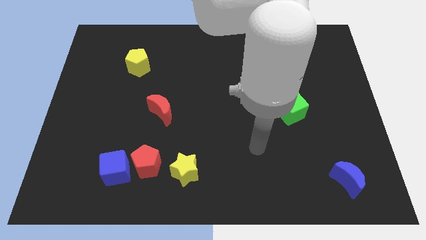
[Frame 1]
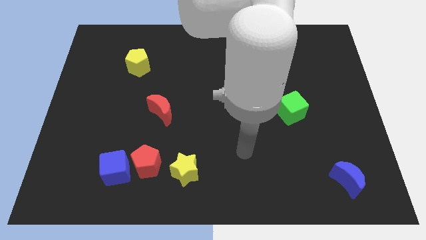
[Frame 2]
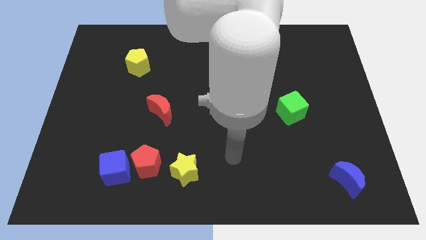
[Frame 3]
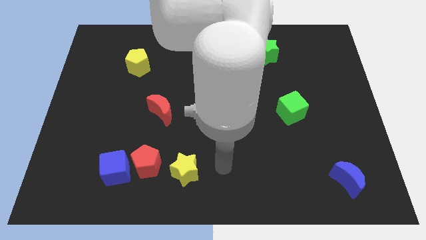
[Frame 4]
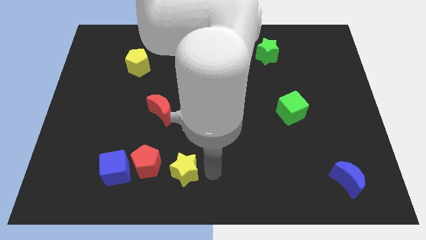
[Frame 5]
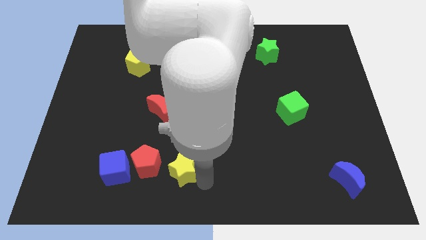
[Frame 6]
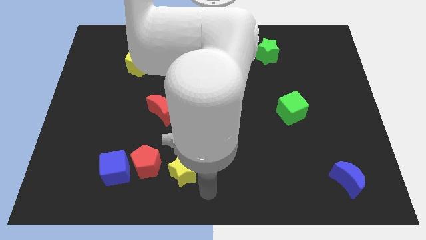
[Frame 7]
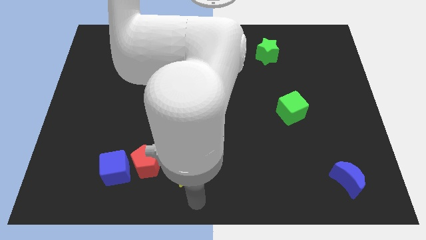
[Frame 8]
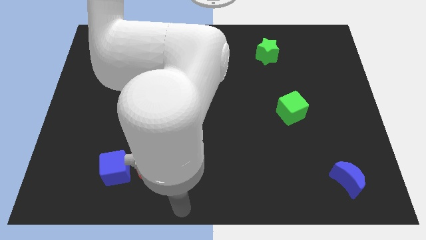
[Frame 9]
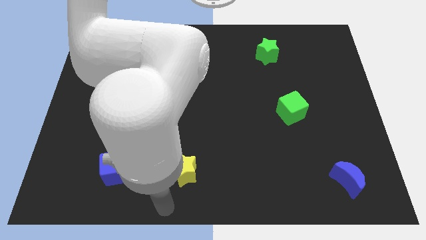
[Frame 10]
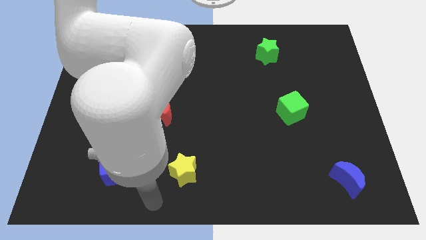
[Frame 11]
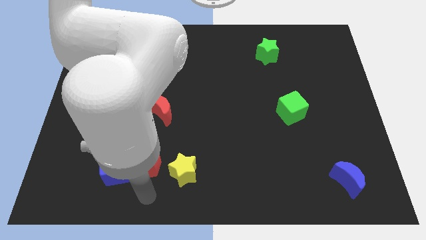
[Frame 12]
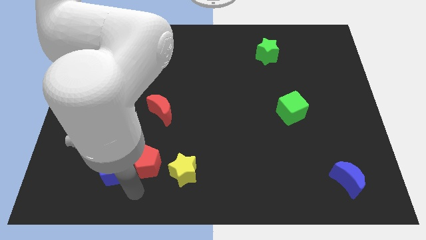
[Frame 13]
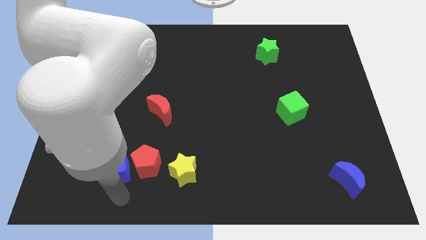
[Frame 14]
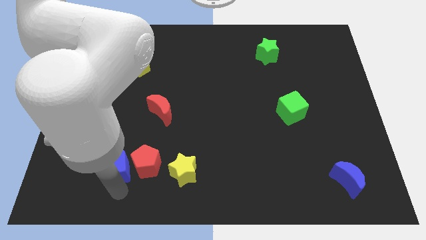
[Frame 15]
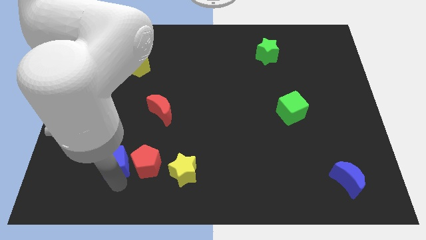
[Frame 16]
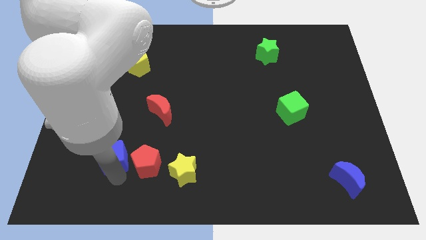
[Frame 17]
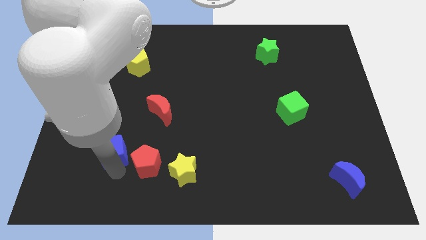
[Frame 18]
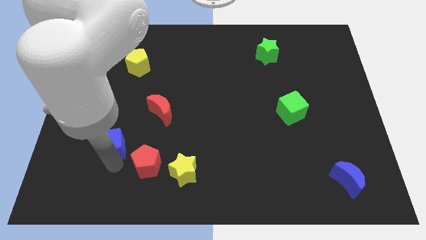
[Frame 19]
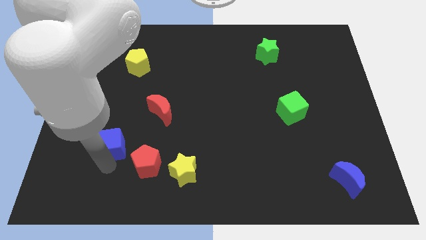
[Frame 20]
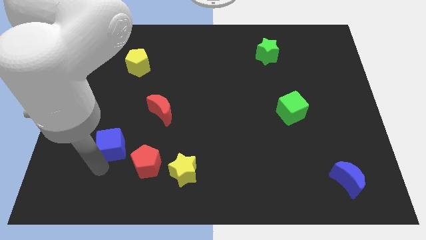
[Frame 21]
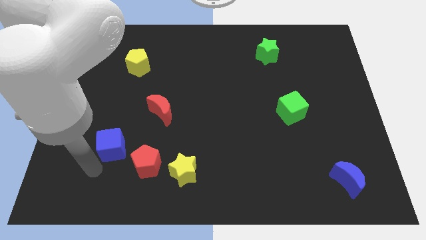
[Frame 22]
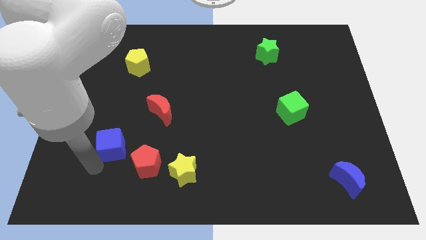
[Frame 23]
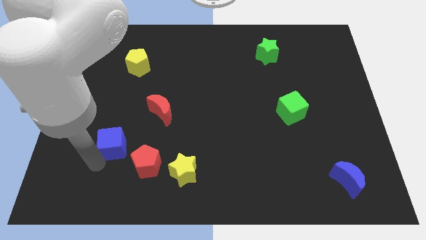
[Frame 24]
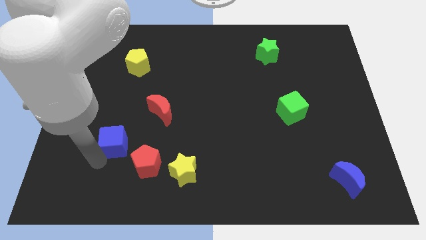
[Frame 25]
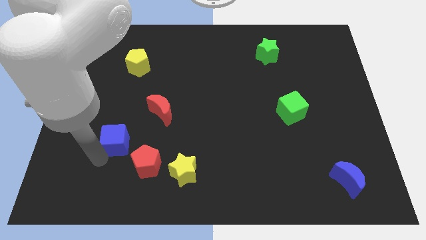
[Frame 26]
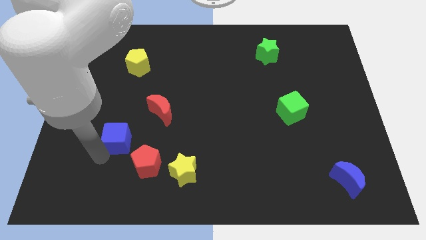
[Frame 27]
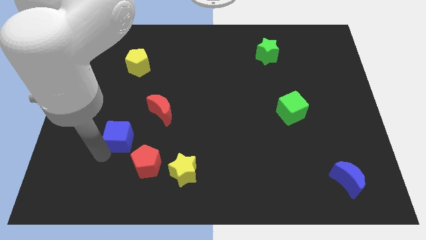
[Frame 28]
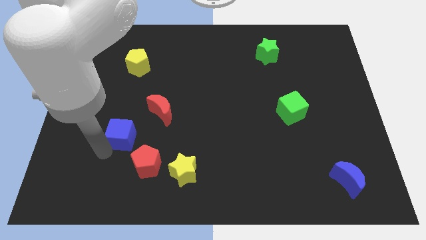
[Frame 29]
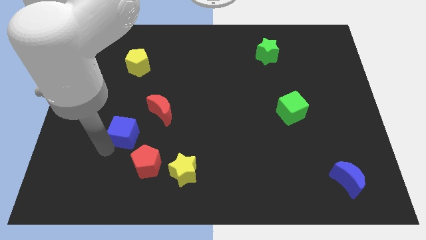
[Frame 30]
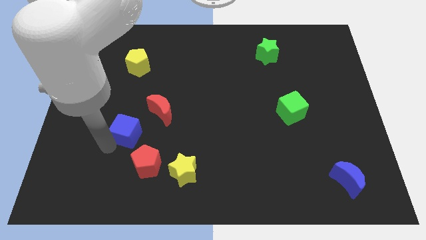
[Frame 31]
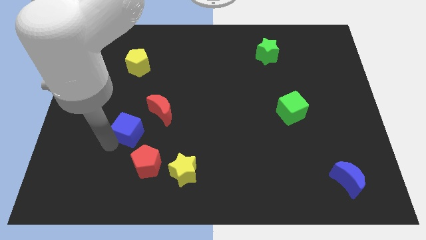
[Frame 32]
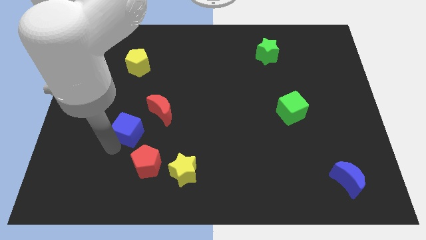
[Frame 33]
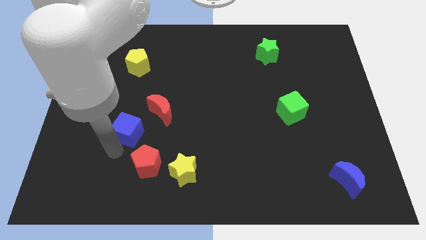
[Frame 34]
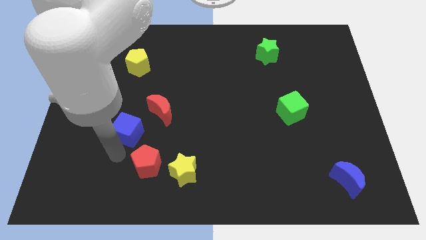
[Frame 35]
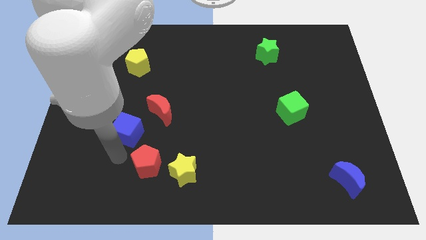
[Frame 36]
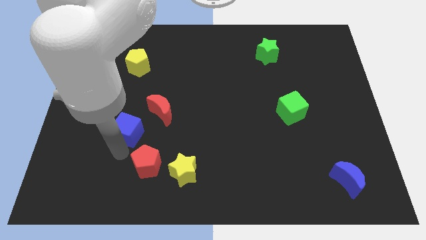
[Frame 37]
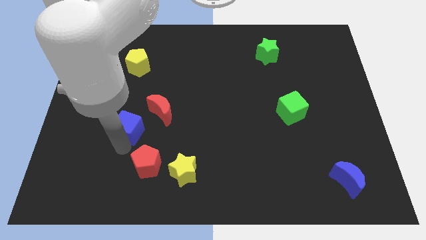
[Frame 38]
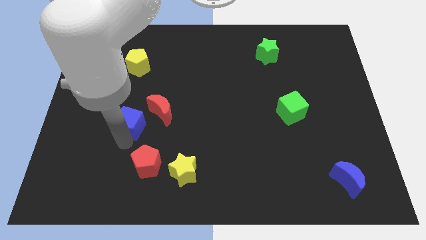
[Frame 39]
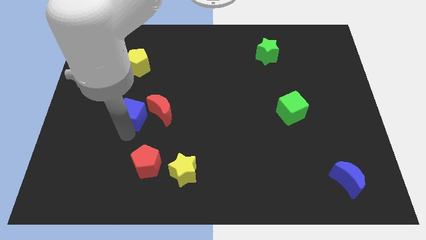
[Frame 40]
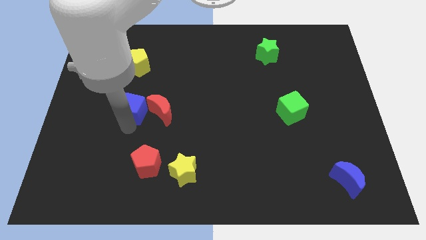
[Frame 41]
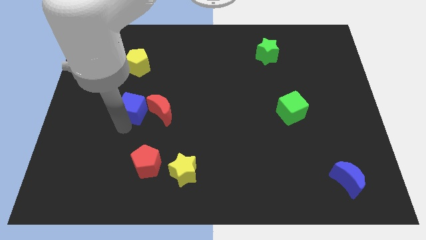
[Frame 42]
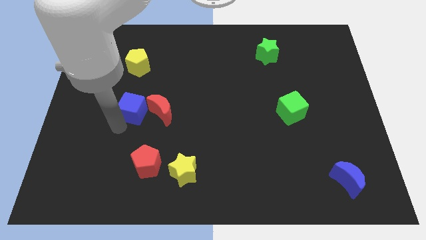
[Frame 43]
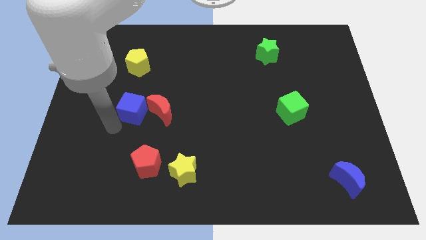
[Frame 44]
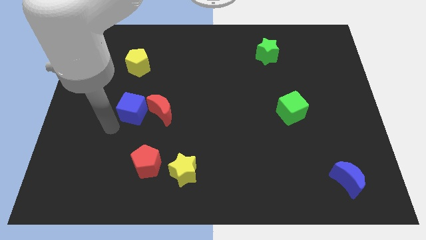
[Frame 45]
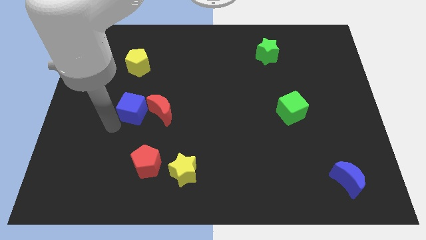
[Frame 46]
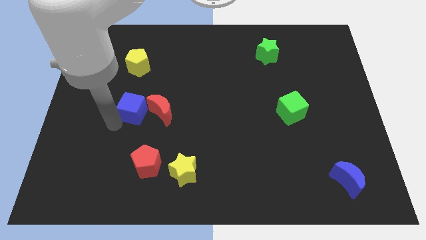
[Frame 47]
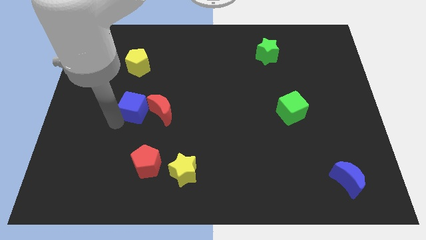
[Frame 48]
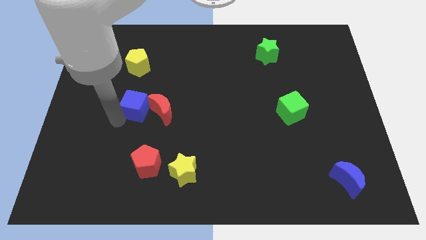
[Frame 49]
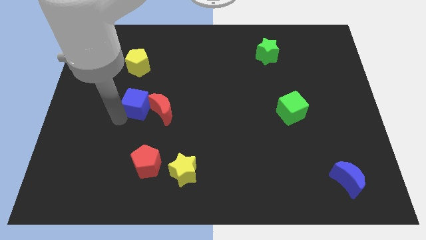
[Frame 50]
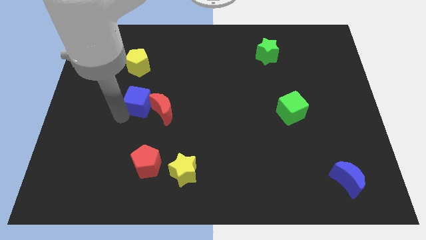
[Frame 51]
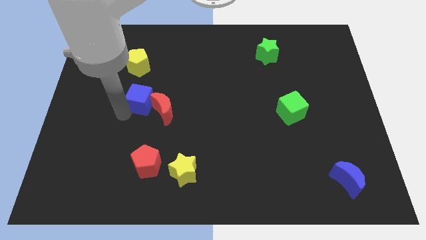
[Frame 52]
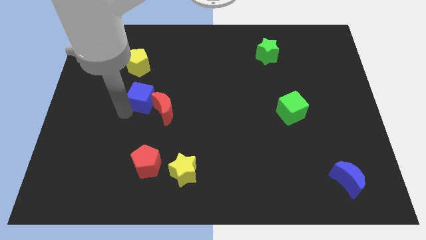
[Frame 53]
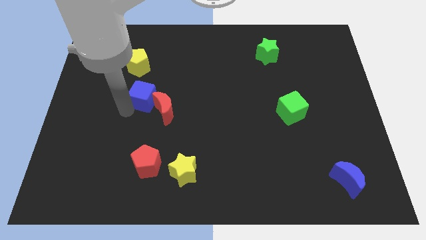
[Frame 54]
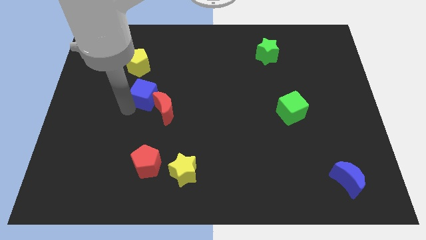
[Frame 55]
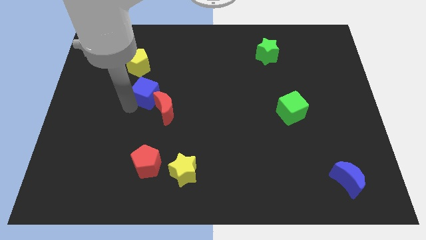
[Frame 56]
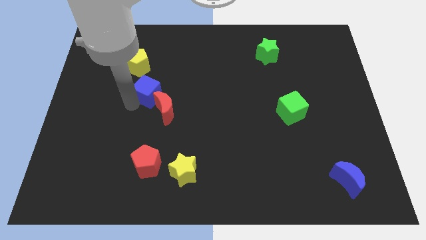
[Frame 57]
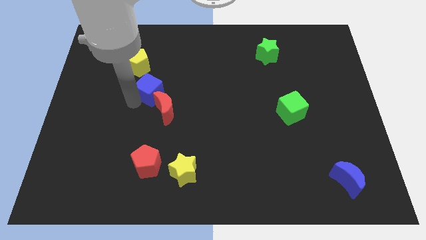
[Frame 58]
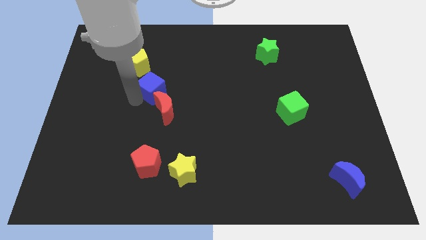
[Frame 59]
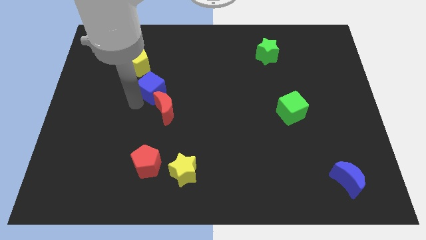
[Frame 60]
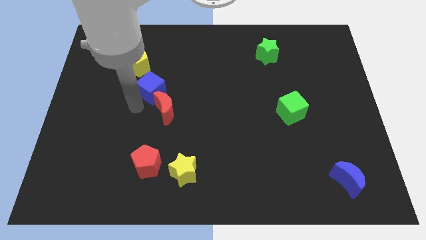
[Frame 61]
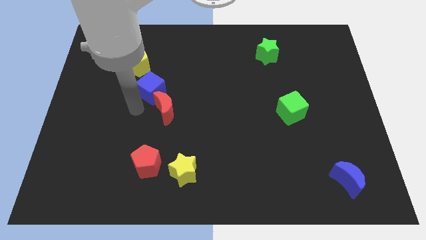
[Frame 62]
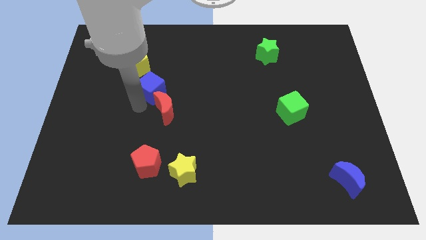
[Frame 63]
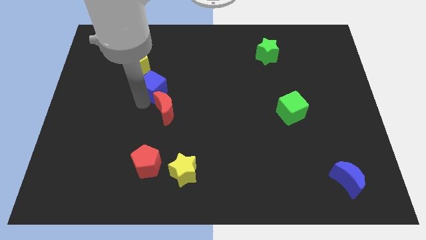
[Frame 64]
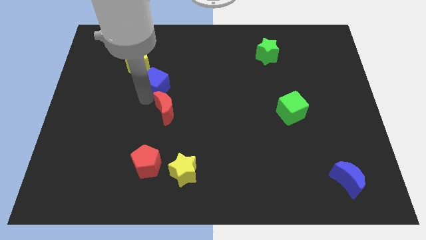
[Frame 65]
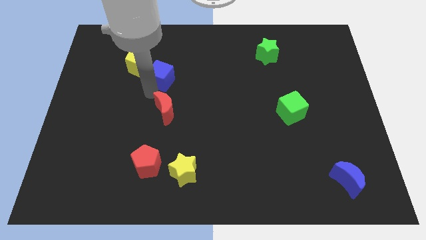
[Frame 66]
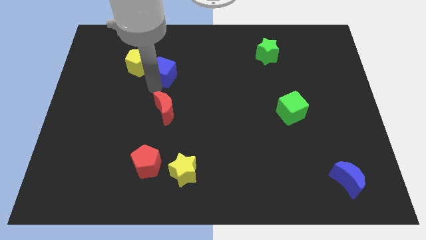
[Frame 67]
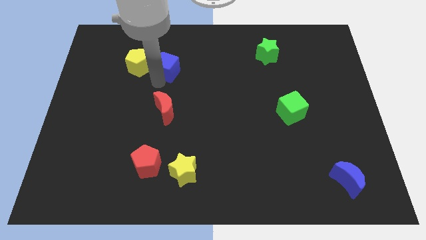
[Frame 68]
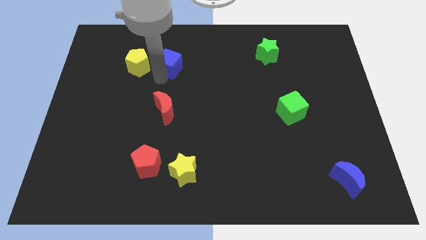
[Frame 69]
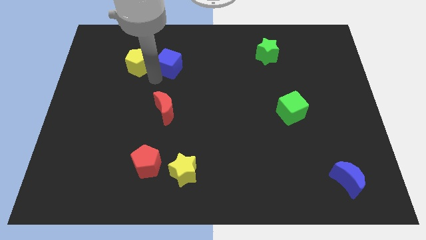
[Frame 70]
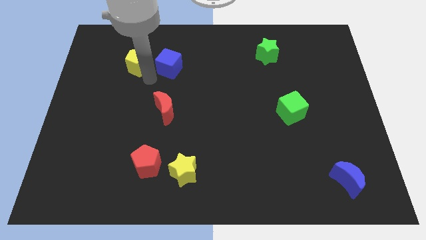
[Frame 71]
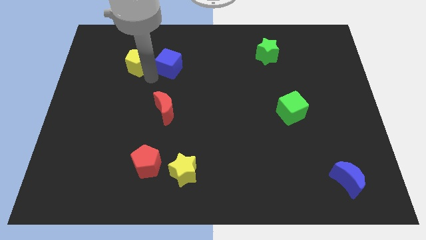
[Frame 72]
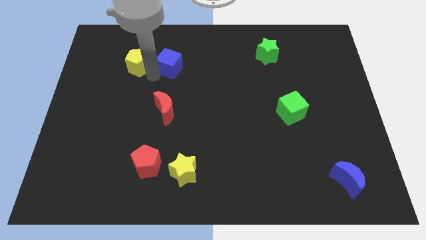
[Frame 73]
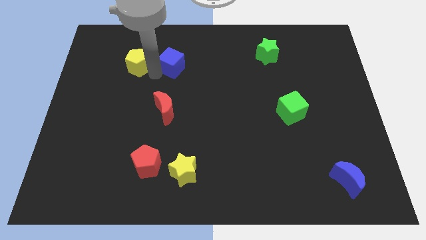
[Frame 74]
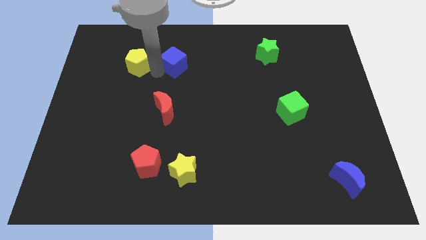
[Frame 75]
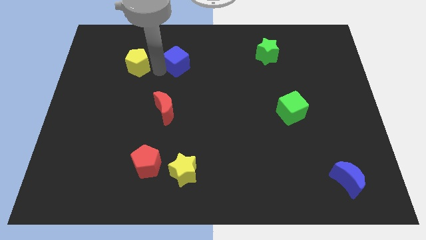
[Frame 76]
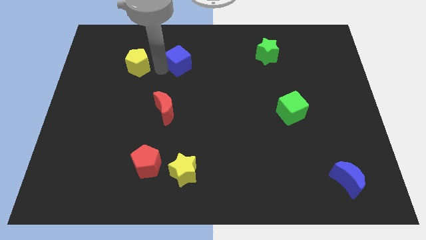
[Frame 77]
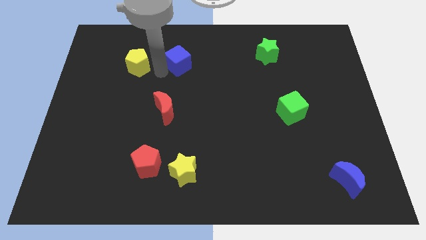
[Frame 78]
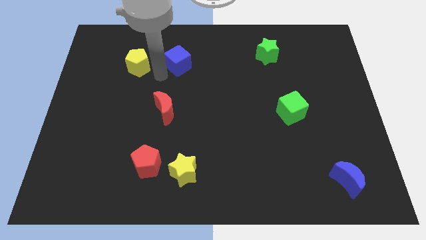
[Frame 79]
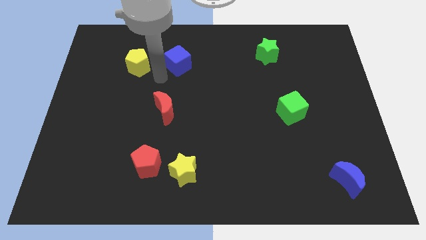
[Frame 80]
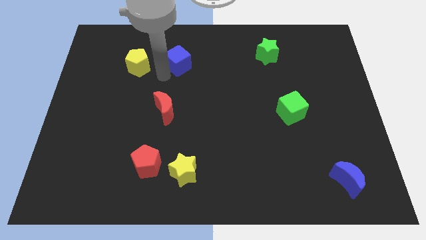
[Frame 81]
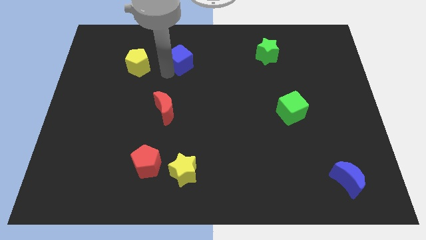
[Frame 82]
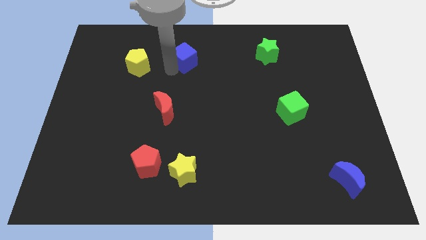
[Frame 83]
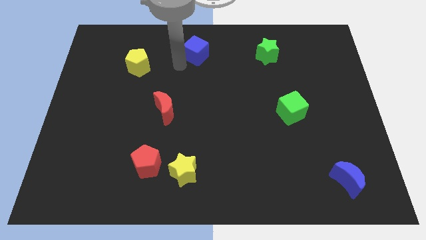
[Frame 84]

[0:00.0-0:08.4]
push the blue cube to the towards your base
